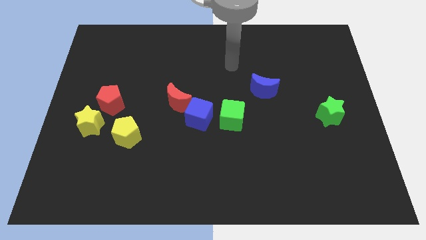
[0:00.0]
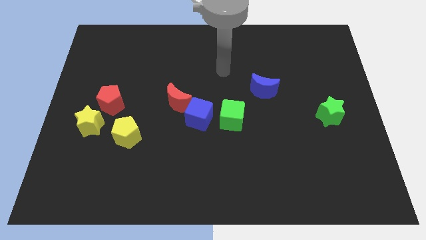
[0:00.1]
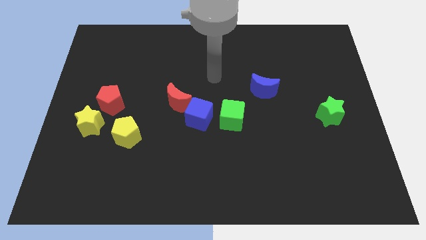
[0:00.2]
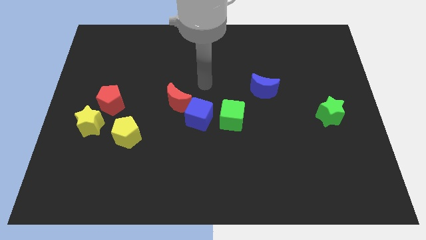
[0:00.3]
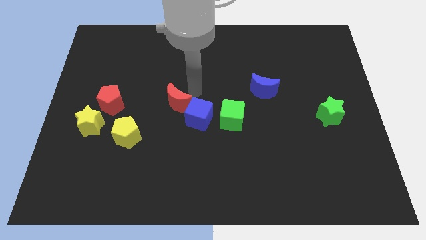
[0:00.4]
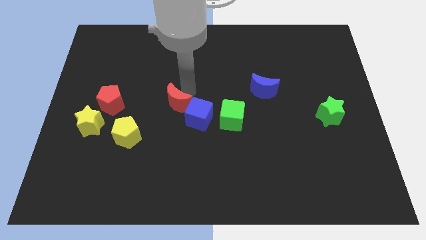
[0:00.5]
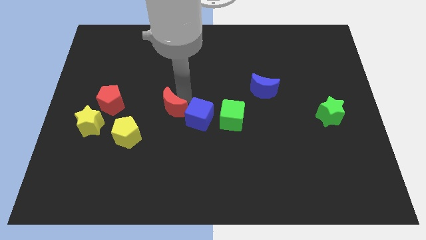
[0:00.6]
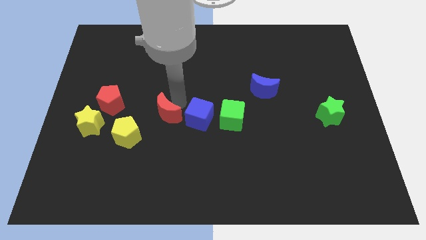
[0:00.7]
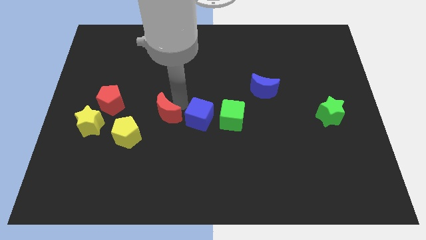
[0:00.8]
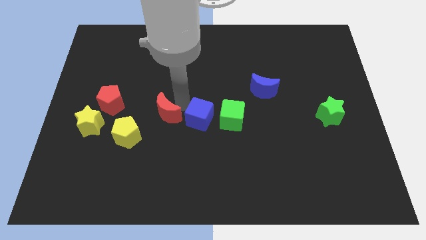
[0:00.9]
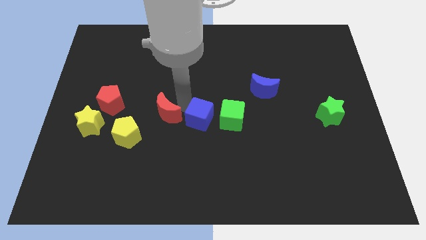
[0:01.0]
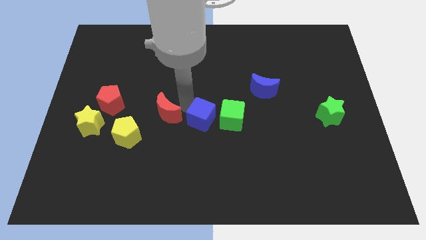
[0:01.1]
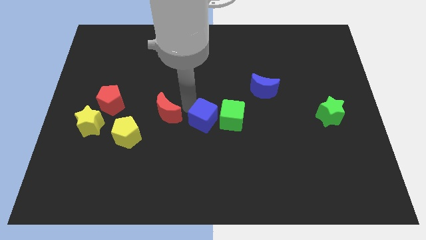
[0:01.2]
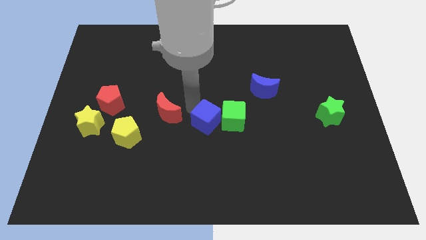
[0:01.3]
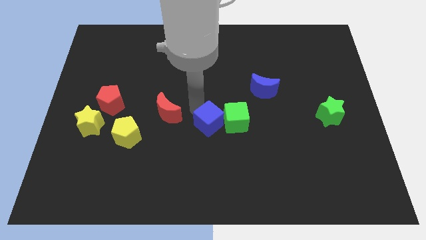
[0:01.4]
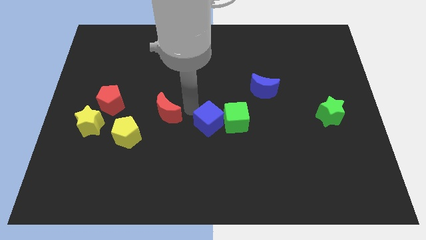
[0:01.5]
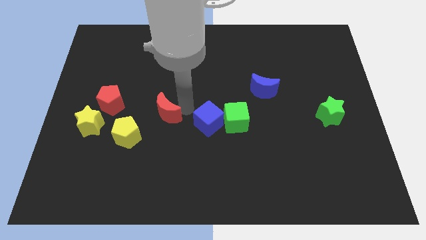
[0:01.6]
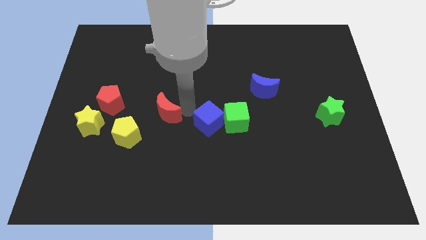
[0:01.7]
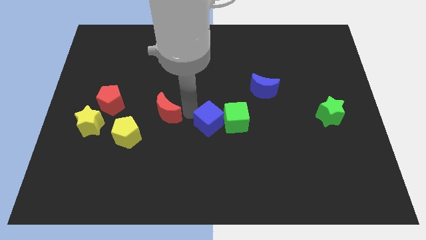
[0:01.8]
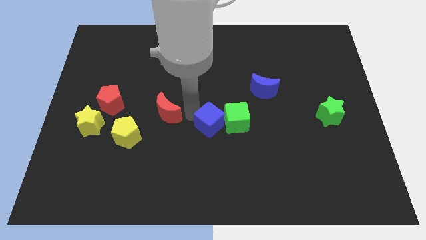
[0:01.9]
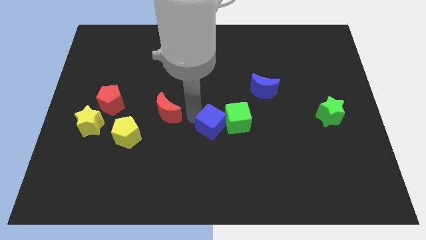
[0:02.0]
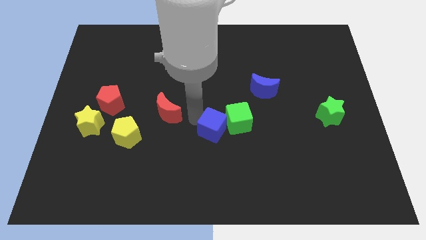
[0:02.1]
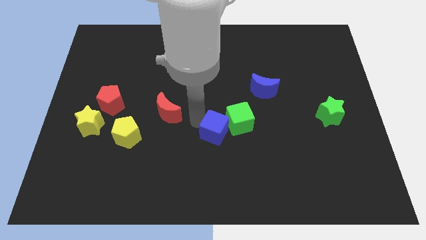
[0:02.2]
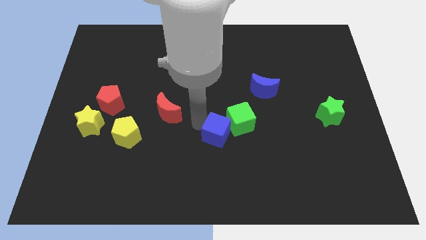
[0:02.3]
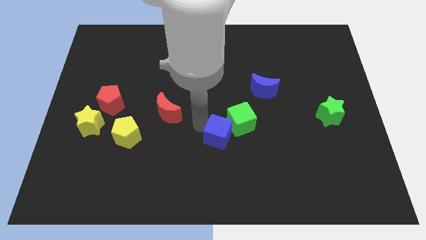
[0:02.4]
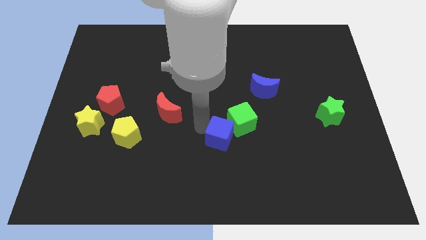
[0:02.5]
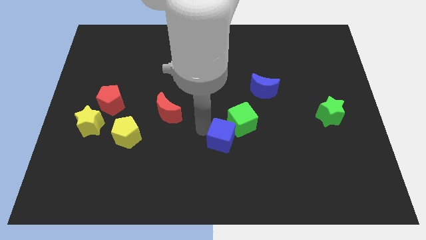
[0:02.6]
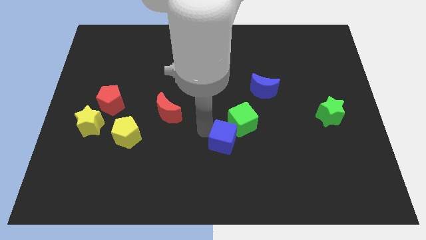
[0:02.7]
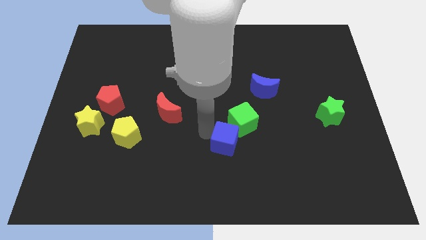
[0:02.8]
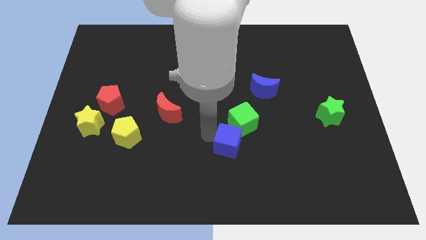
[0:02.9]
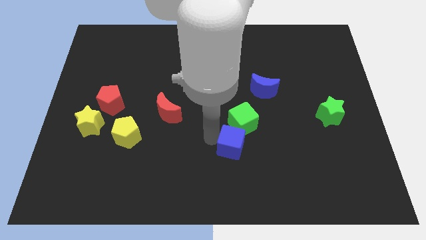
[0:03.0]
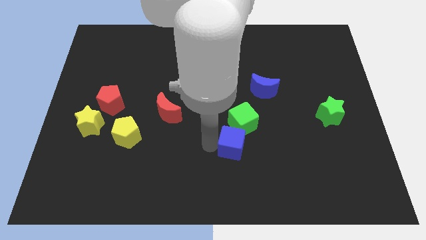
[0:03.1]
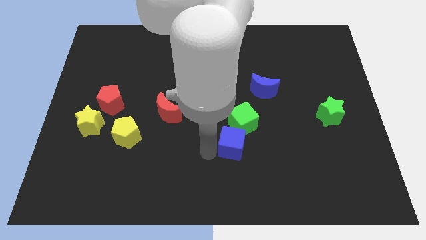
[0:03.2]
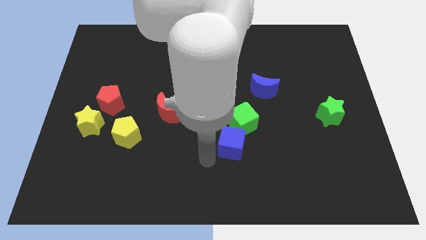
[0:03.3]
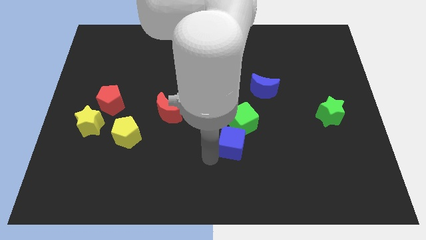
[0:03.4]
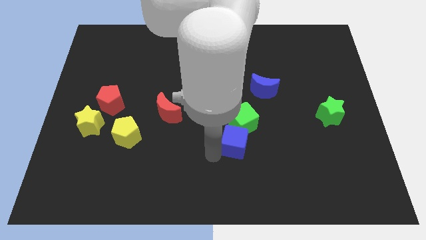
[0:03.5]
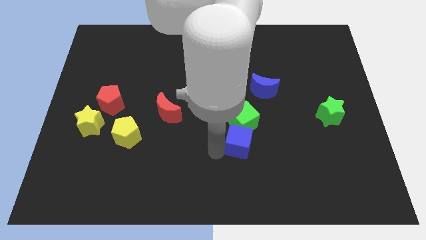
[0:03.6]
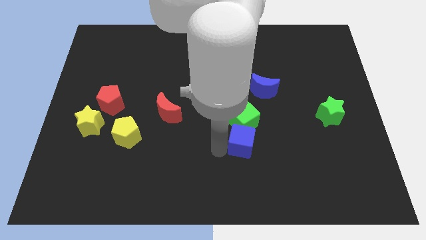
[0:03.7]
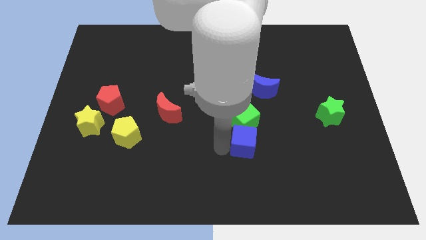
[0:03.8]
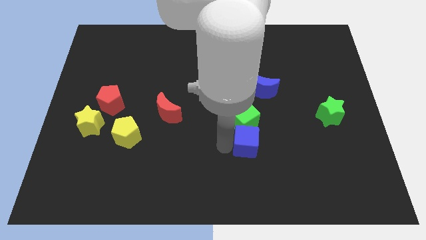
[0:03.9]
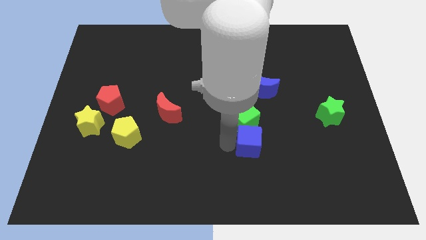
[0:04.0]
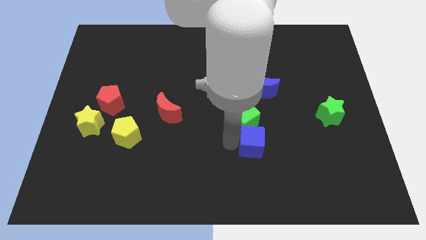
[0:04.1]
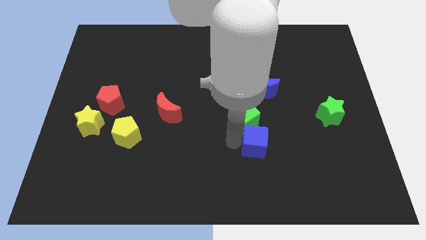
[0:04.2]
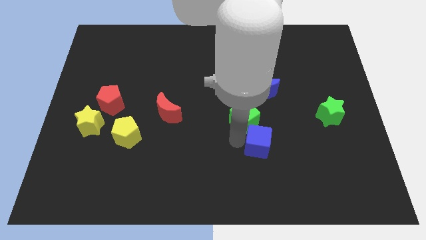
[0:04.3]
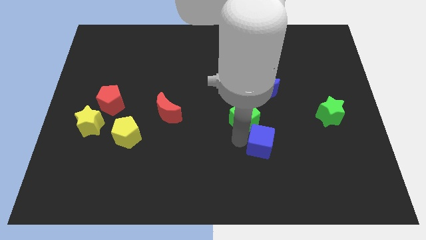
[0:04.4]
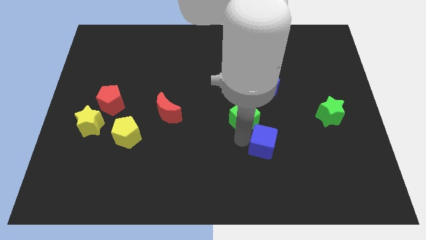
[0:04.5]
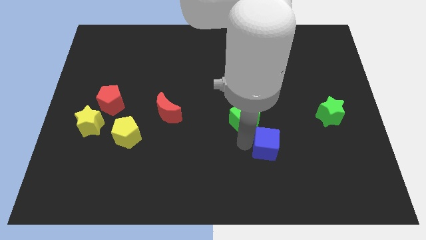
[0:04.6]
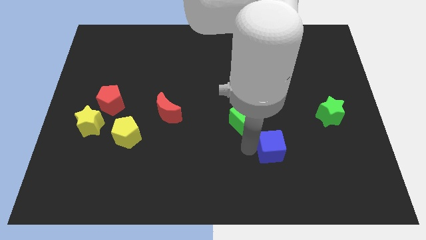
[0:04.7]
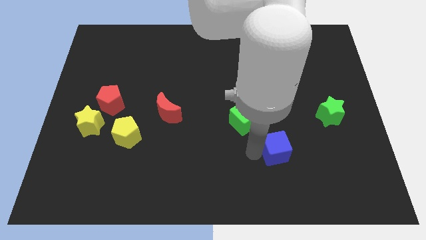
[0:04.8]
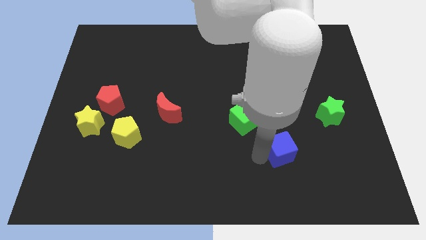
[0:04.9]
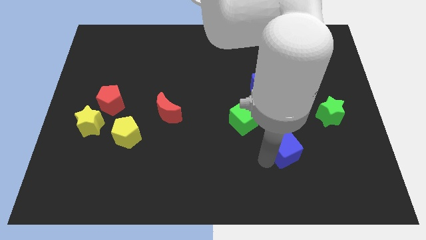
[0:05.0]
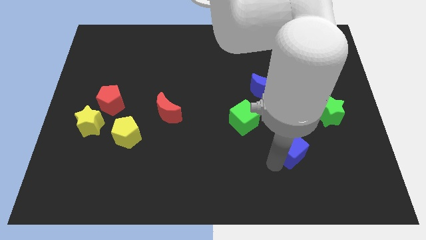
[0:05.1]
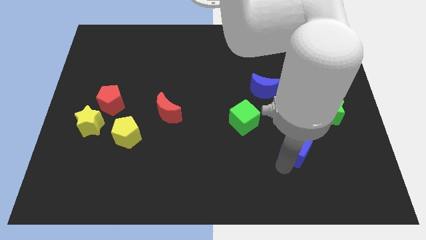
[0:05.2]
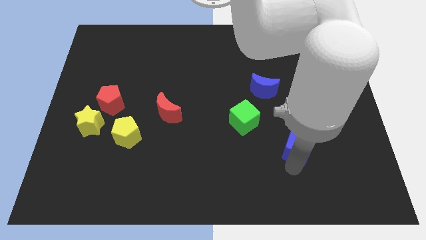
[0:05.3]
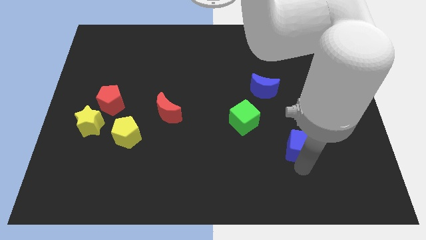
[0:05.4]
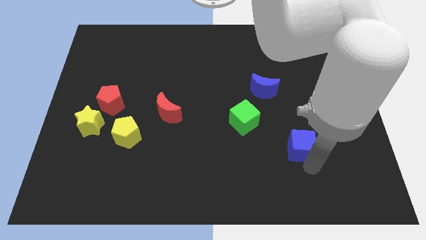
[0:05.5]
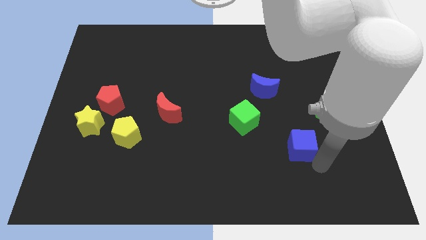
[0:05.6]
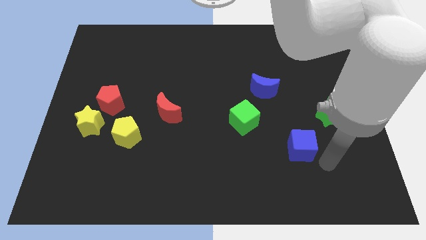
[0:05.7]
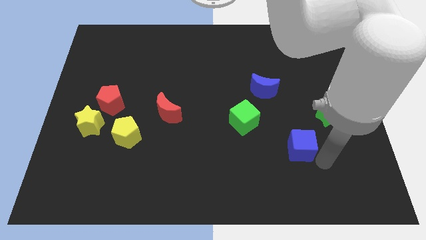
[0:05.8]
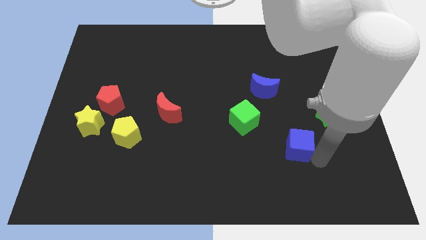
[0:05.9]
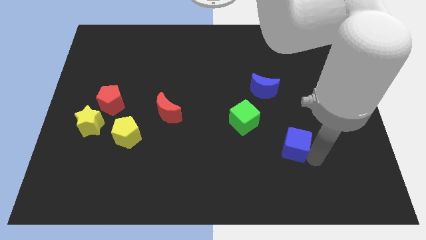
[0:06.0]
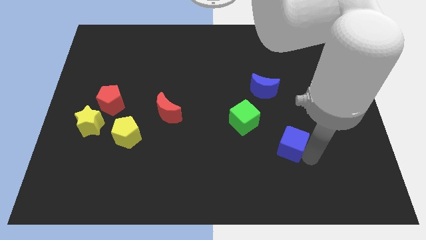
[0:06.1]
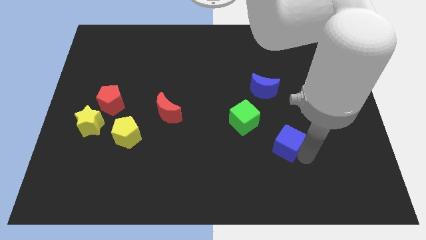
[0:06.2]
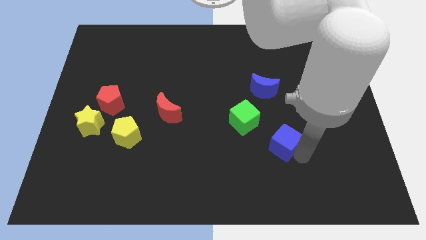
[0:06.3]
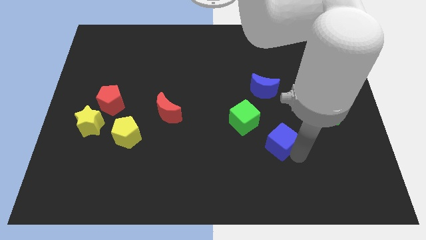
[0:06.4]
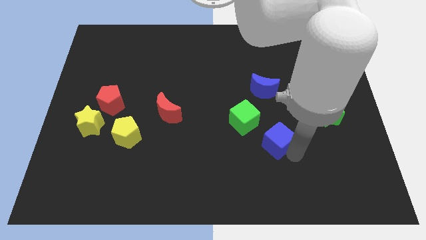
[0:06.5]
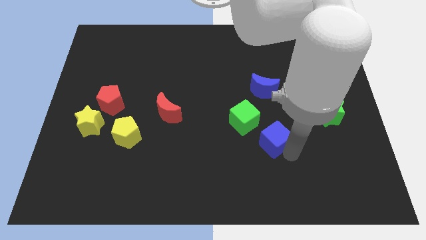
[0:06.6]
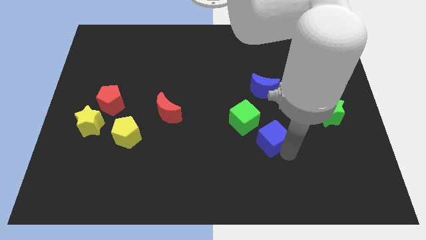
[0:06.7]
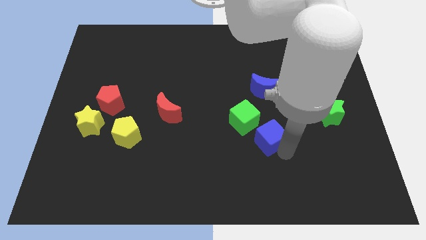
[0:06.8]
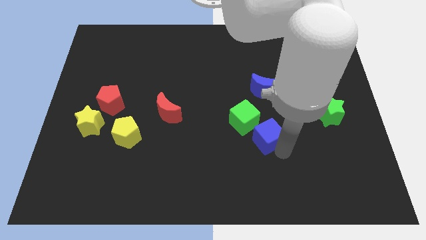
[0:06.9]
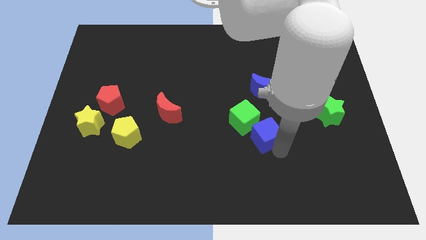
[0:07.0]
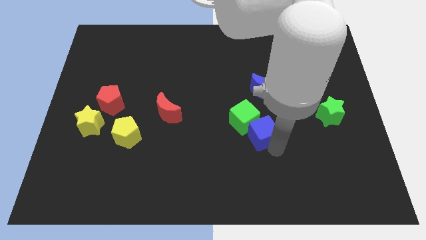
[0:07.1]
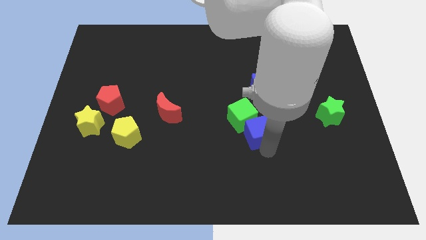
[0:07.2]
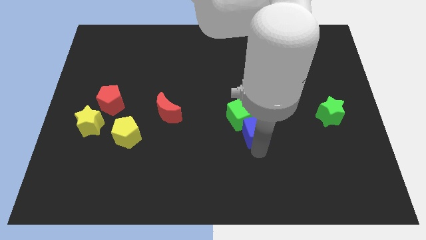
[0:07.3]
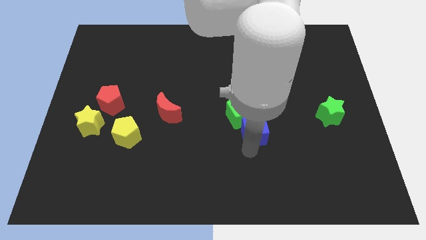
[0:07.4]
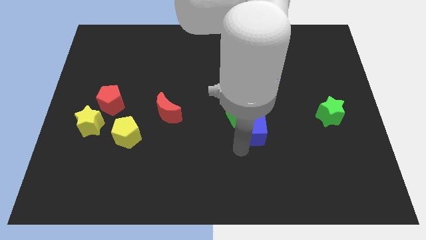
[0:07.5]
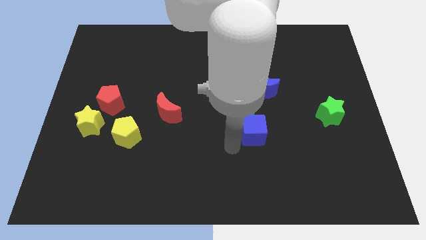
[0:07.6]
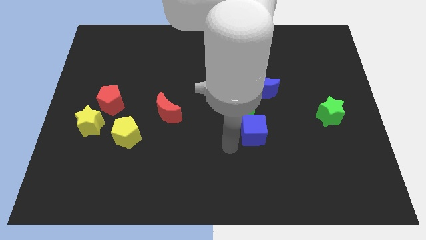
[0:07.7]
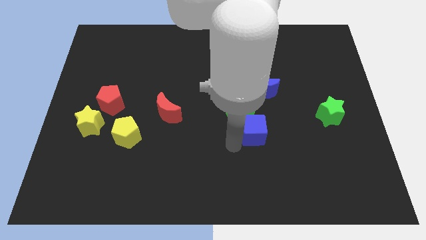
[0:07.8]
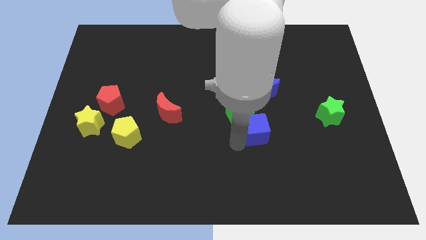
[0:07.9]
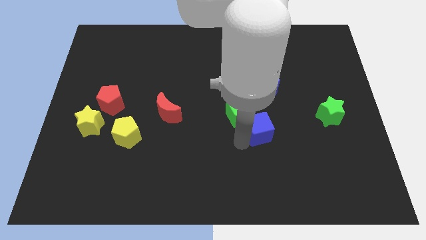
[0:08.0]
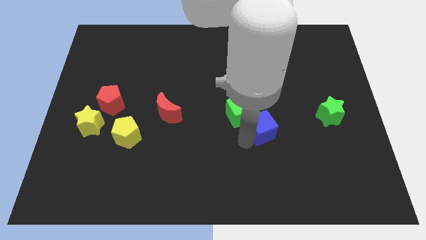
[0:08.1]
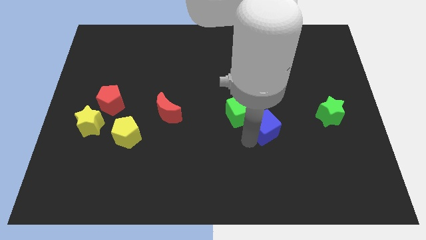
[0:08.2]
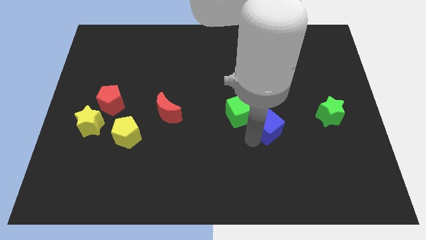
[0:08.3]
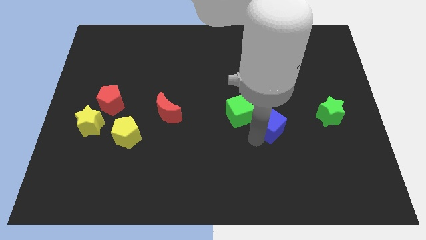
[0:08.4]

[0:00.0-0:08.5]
put the blue cube left of the green star
